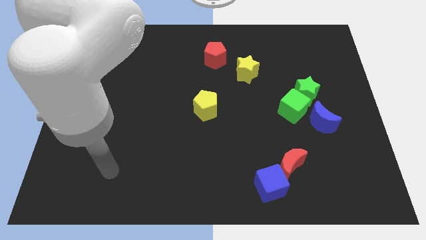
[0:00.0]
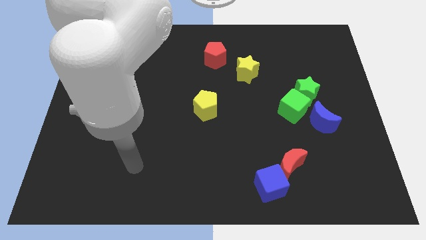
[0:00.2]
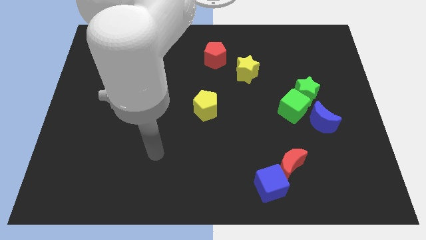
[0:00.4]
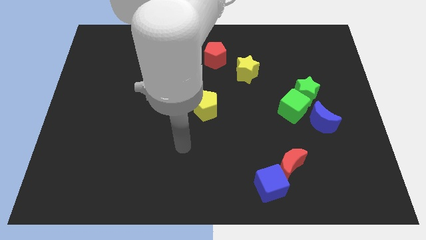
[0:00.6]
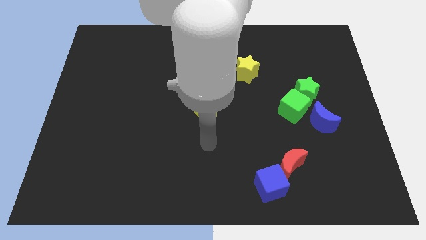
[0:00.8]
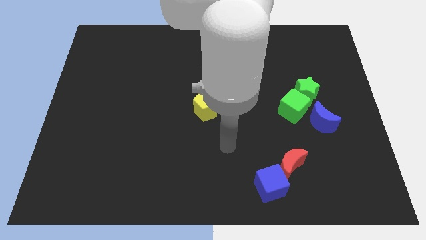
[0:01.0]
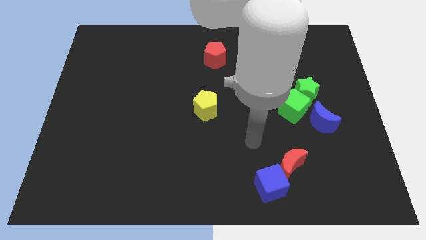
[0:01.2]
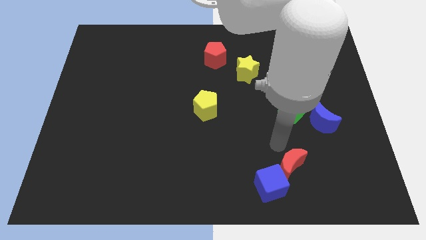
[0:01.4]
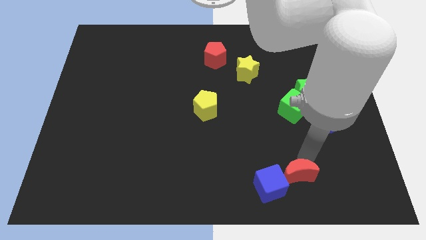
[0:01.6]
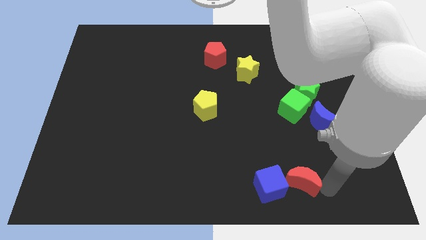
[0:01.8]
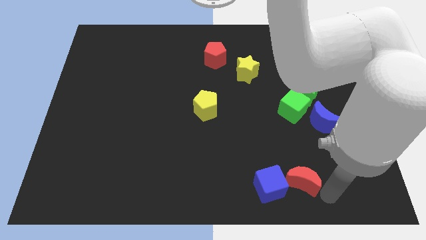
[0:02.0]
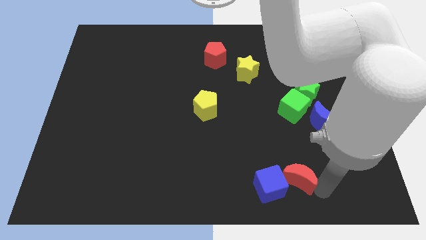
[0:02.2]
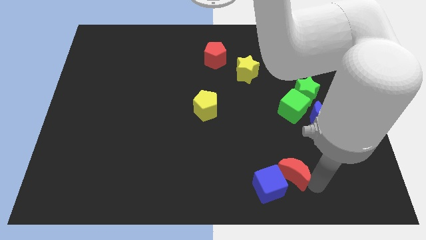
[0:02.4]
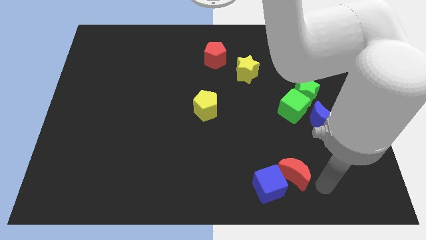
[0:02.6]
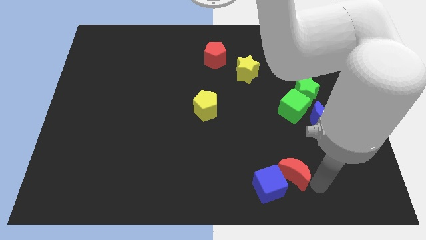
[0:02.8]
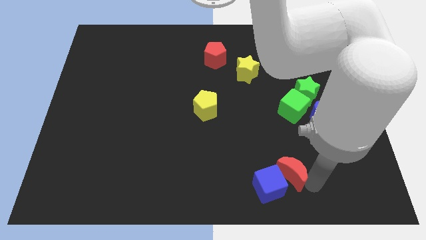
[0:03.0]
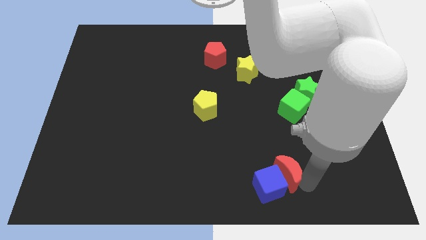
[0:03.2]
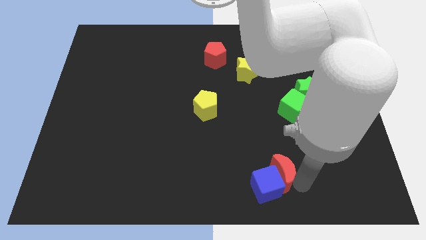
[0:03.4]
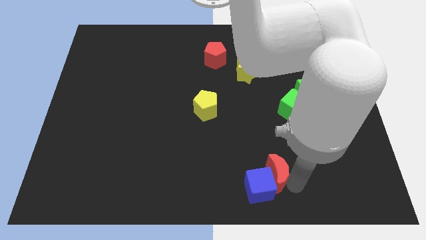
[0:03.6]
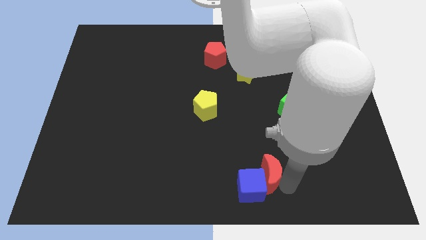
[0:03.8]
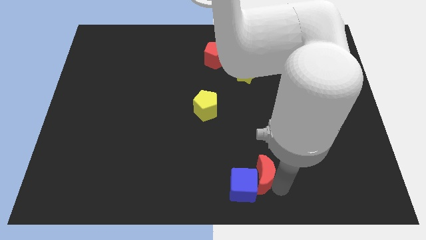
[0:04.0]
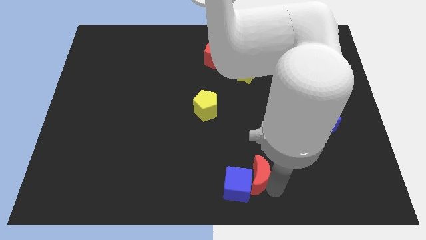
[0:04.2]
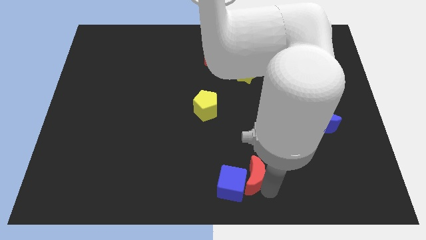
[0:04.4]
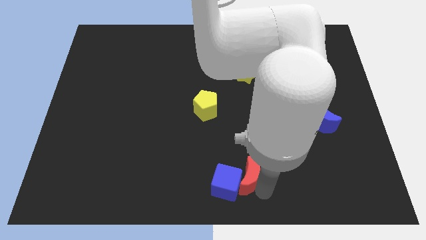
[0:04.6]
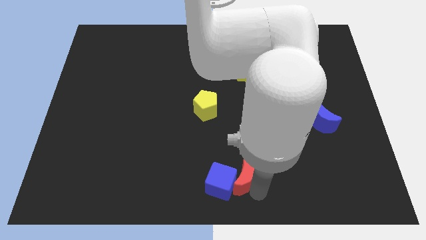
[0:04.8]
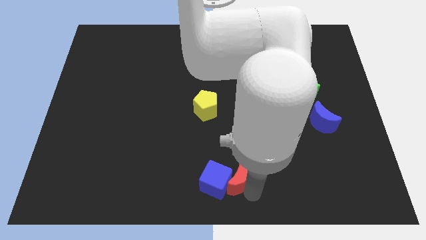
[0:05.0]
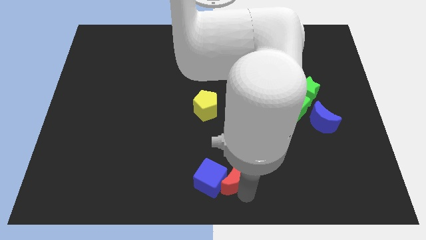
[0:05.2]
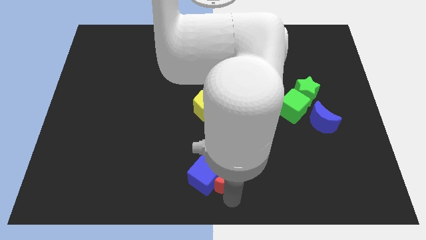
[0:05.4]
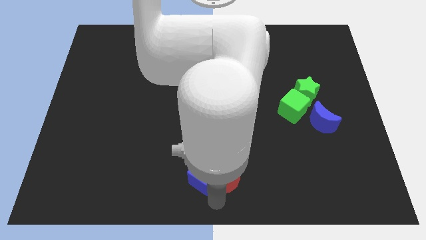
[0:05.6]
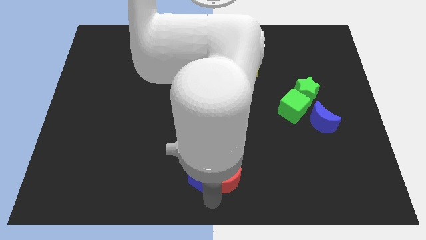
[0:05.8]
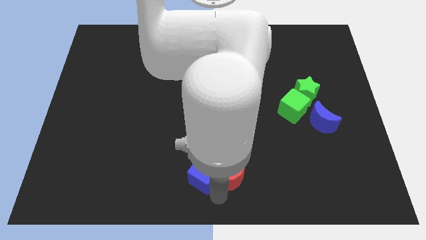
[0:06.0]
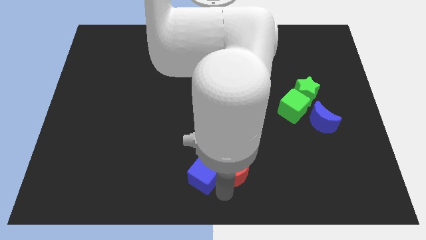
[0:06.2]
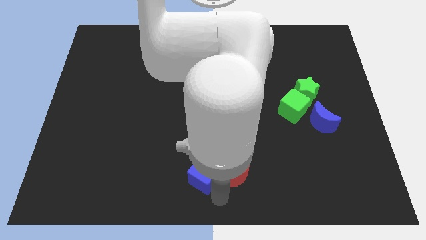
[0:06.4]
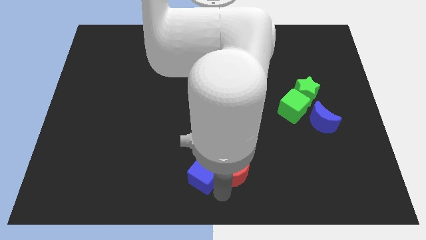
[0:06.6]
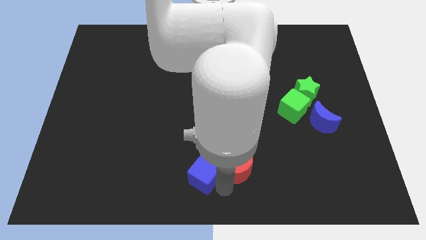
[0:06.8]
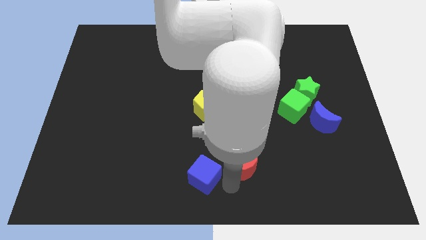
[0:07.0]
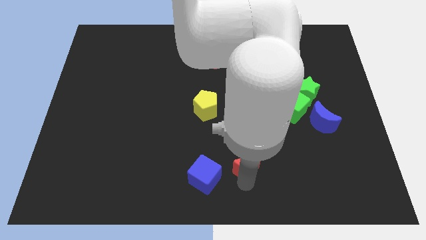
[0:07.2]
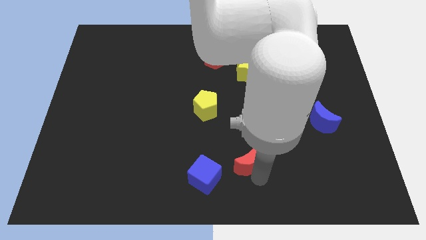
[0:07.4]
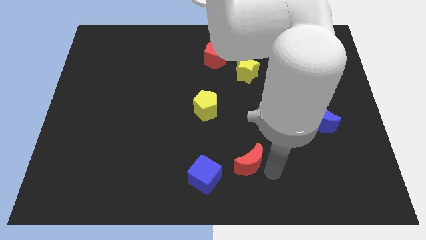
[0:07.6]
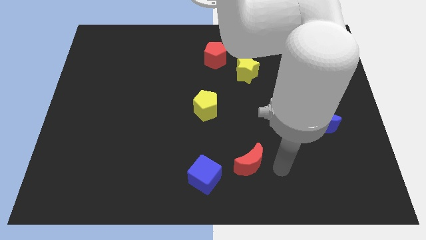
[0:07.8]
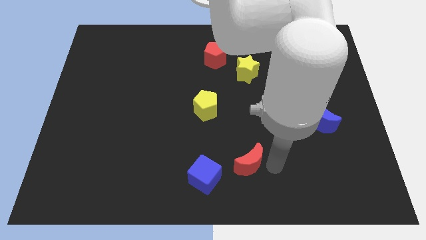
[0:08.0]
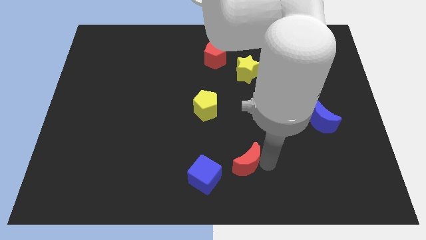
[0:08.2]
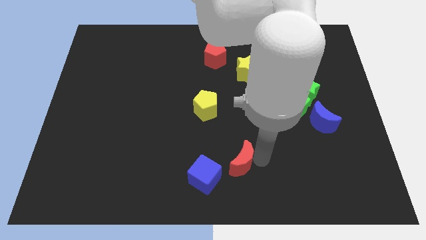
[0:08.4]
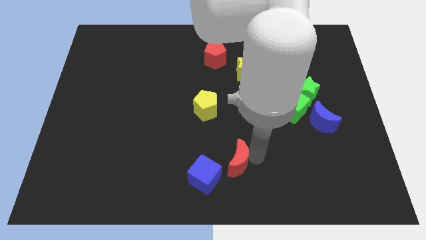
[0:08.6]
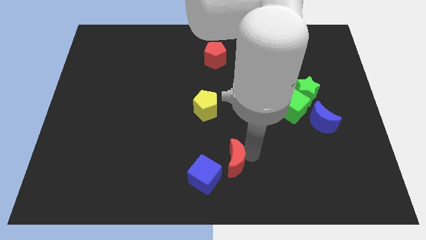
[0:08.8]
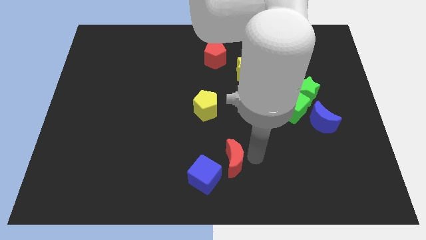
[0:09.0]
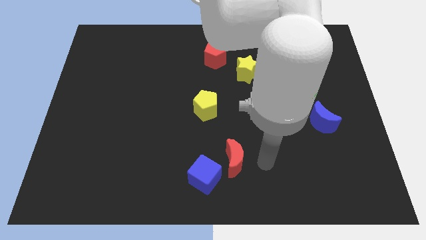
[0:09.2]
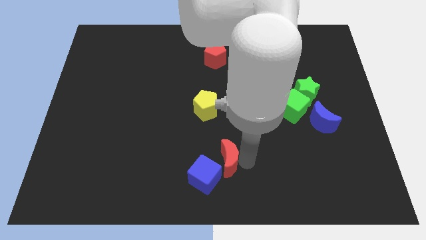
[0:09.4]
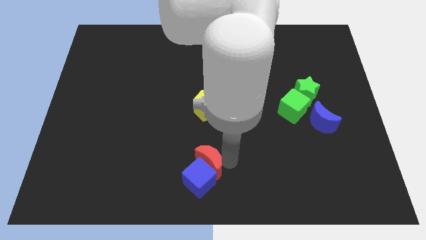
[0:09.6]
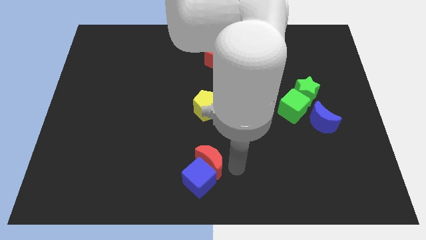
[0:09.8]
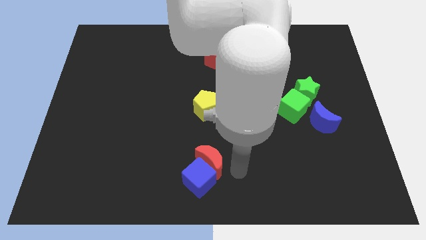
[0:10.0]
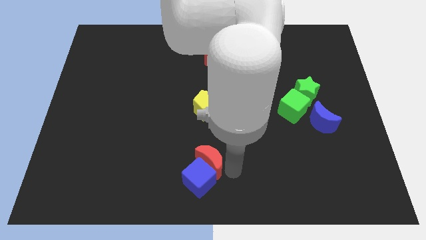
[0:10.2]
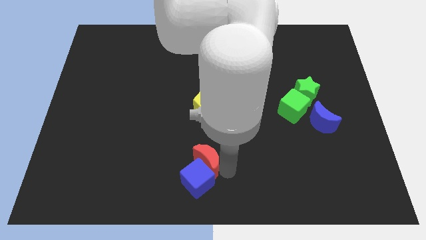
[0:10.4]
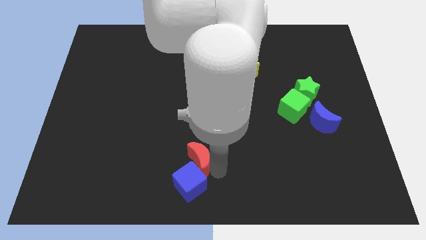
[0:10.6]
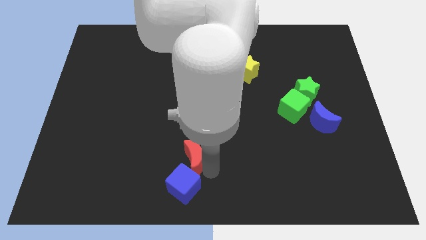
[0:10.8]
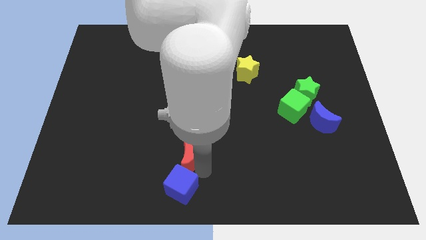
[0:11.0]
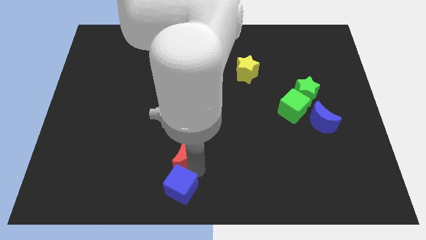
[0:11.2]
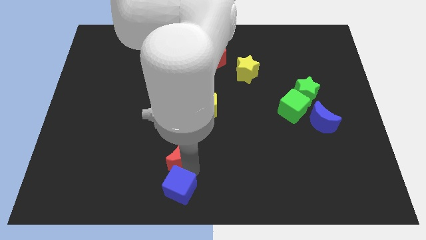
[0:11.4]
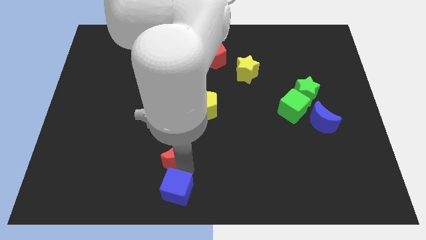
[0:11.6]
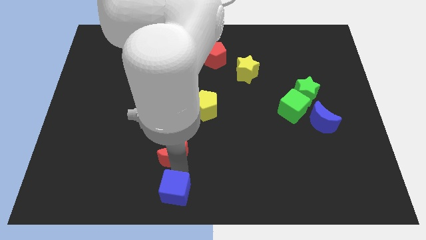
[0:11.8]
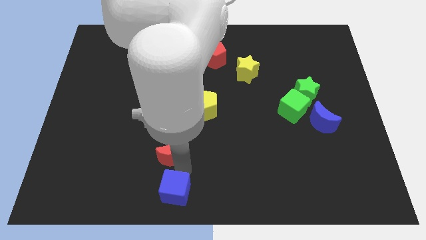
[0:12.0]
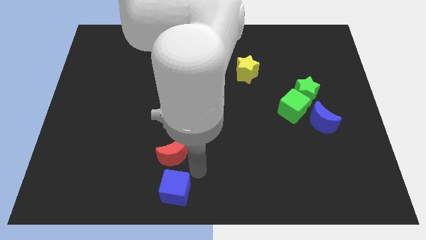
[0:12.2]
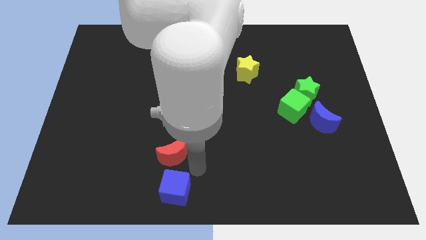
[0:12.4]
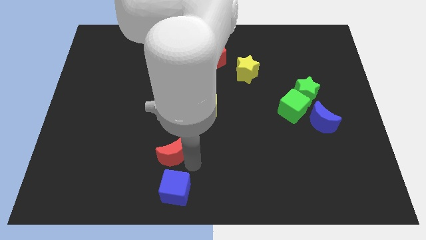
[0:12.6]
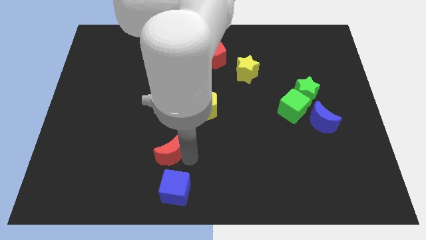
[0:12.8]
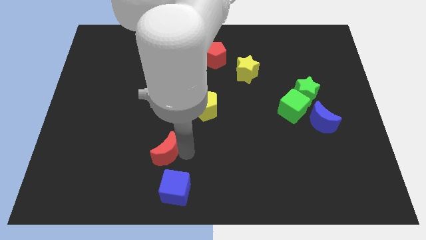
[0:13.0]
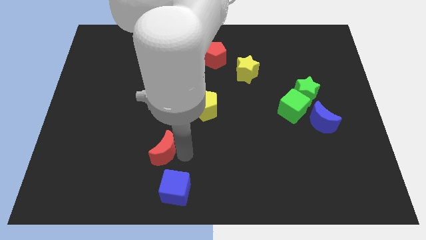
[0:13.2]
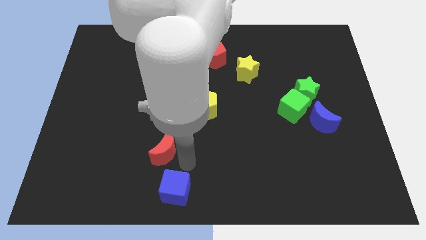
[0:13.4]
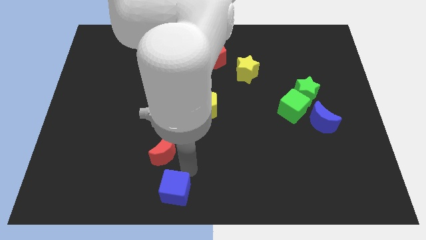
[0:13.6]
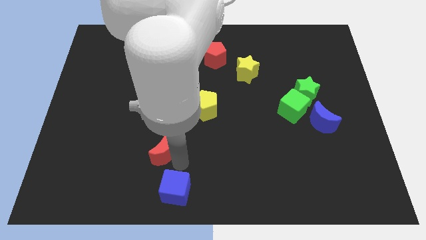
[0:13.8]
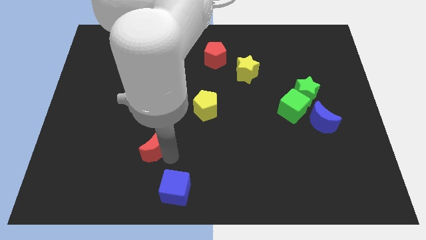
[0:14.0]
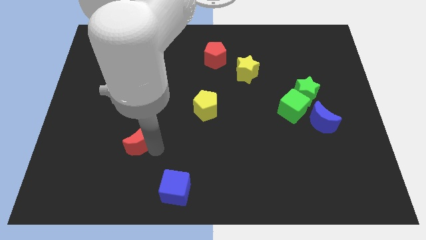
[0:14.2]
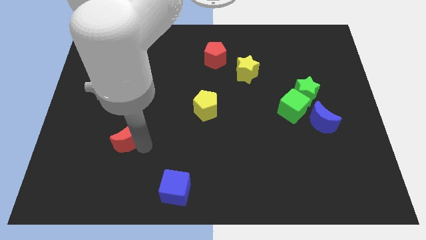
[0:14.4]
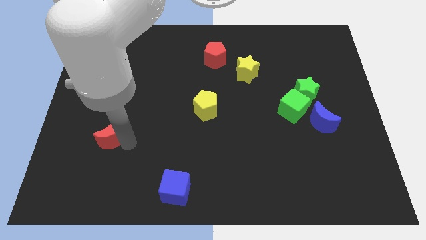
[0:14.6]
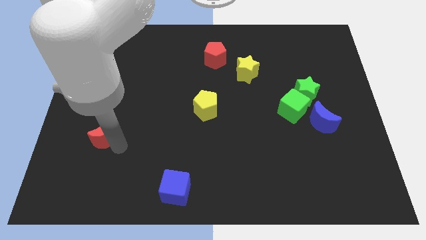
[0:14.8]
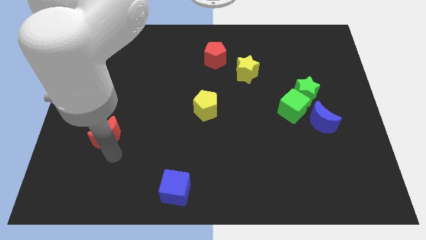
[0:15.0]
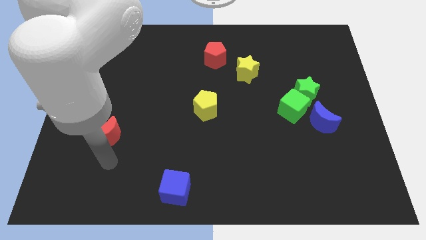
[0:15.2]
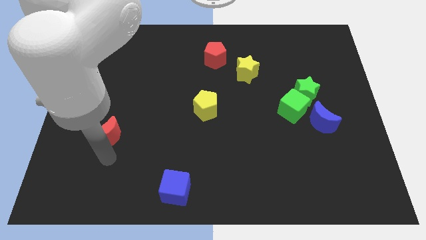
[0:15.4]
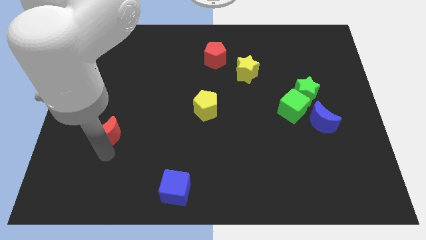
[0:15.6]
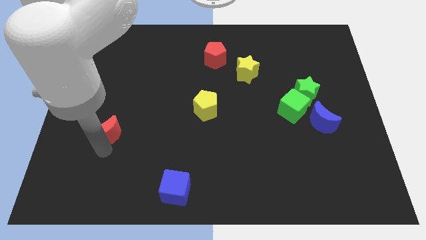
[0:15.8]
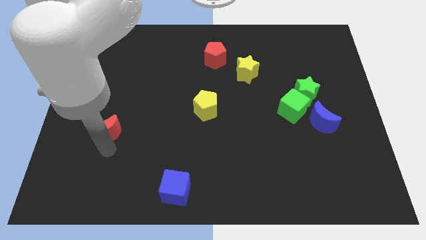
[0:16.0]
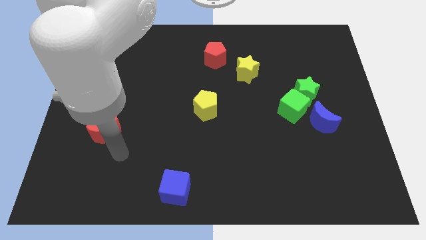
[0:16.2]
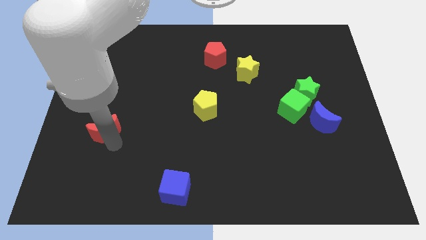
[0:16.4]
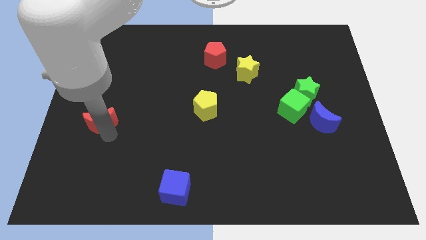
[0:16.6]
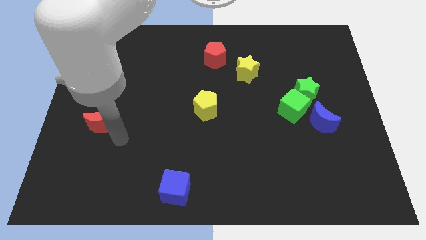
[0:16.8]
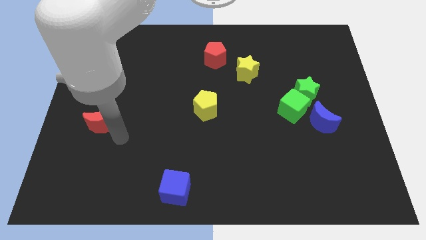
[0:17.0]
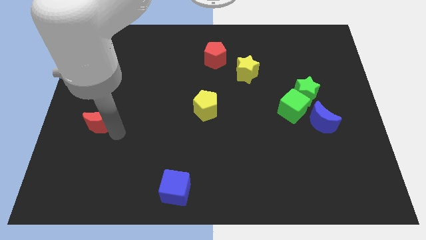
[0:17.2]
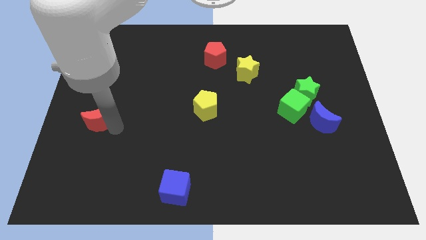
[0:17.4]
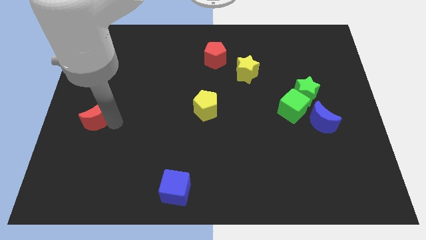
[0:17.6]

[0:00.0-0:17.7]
put the red moon to the center left
